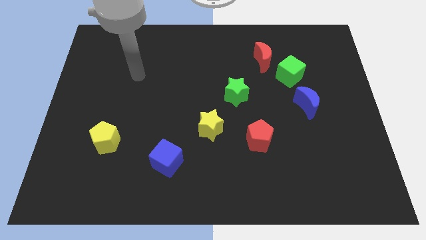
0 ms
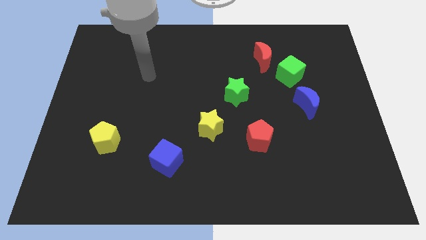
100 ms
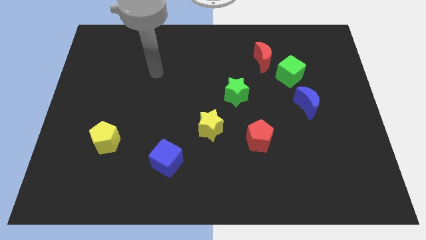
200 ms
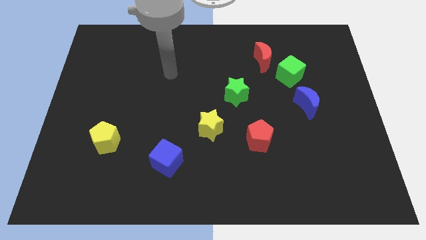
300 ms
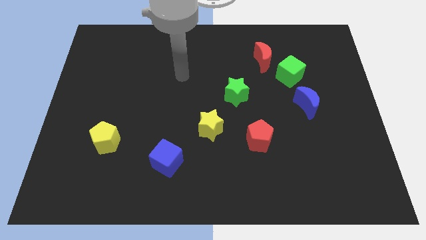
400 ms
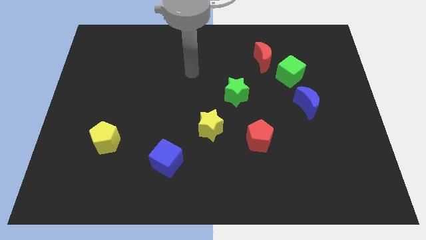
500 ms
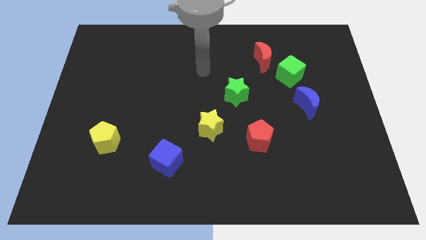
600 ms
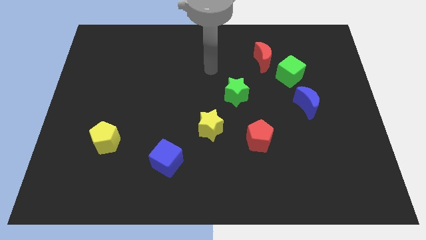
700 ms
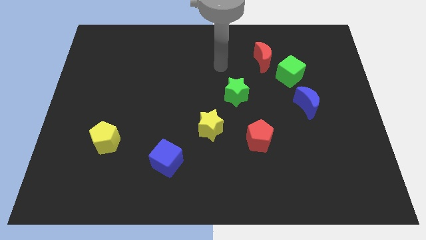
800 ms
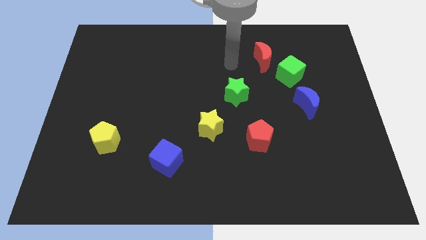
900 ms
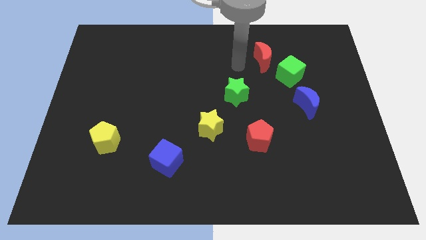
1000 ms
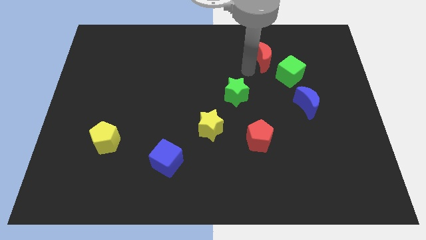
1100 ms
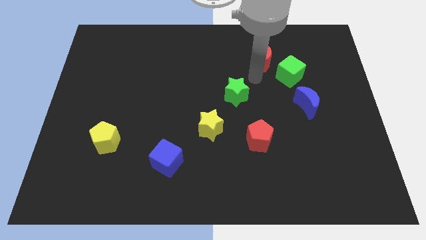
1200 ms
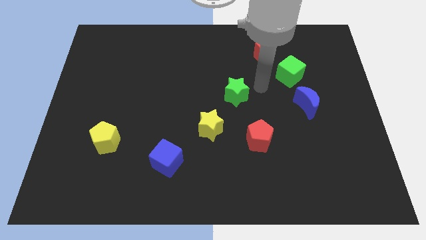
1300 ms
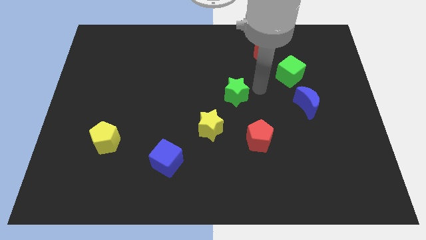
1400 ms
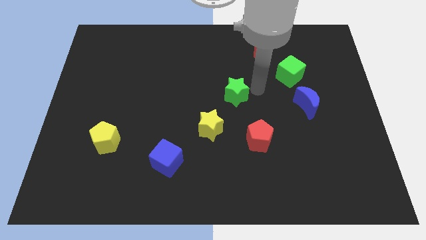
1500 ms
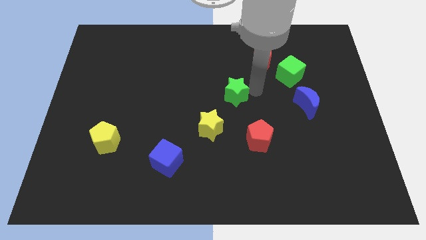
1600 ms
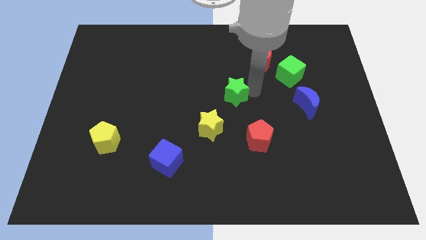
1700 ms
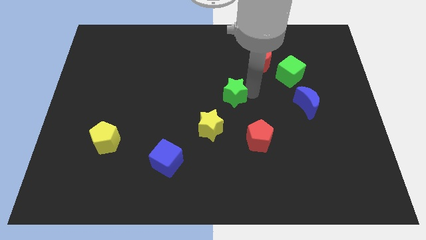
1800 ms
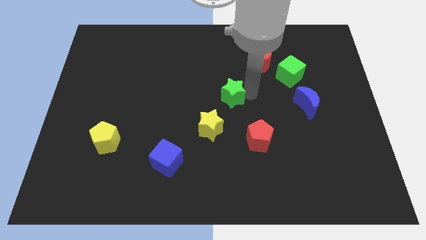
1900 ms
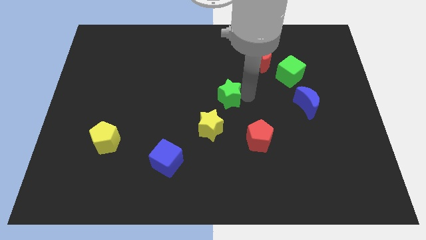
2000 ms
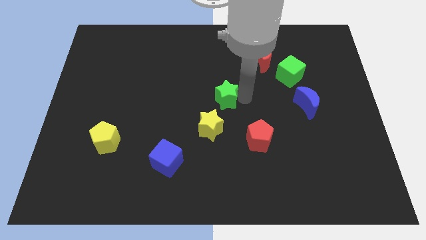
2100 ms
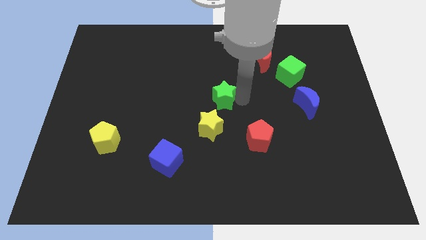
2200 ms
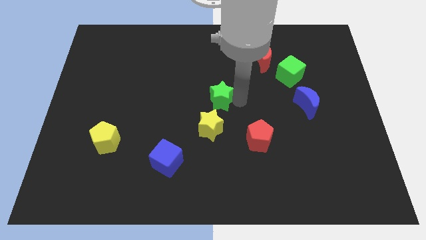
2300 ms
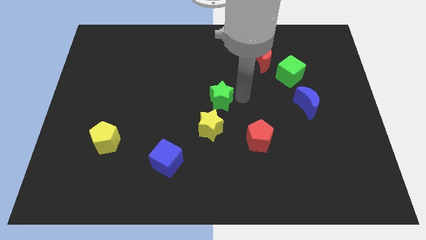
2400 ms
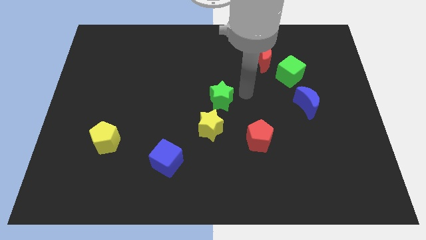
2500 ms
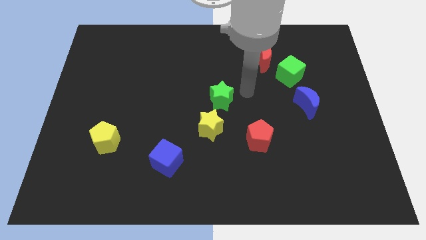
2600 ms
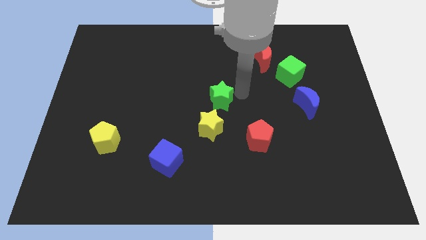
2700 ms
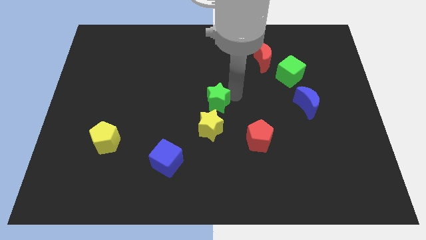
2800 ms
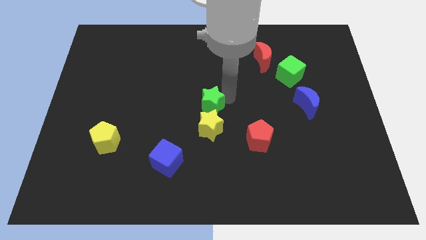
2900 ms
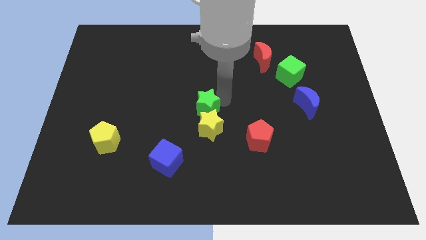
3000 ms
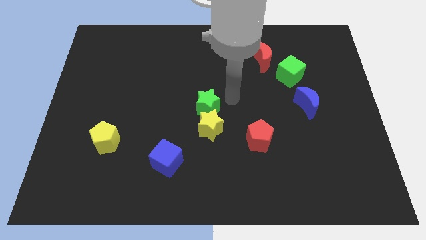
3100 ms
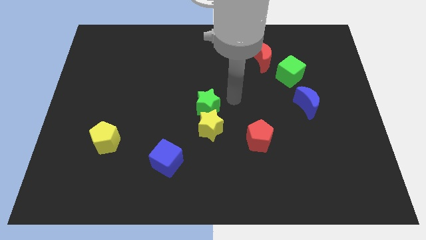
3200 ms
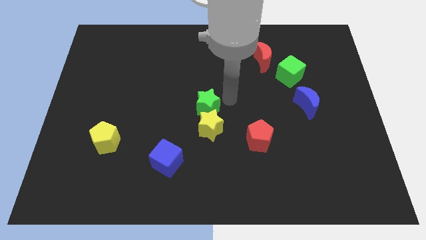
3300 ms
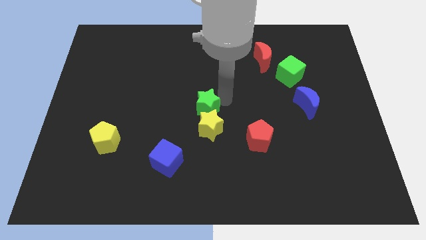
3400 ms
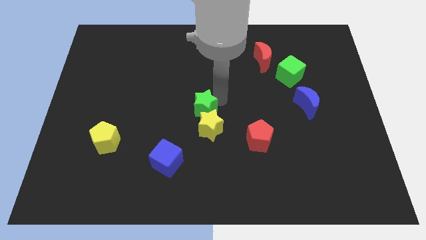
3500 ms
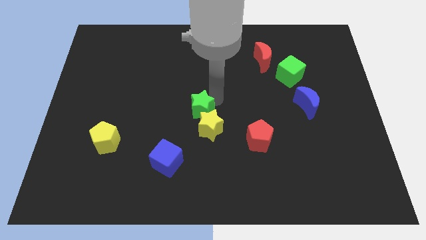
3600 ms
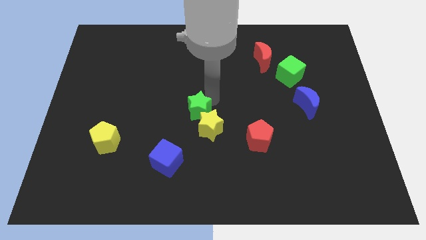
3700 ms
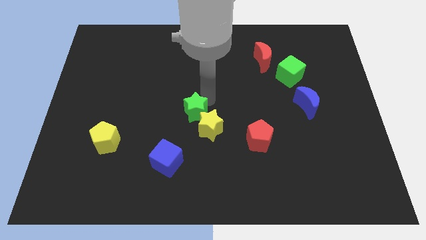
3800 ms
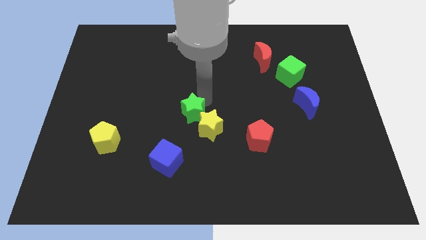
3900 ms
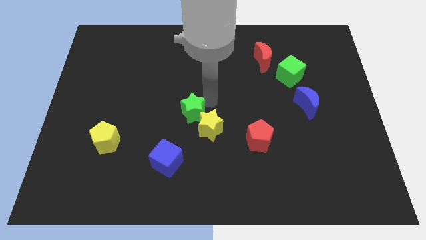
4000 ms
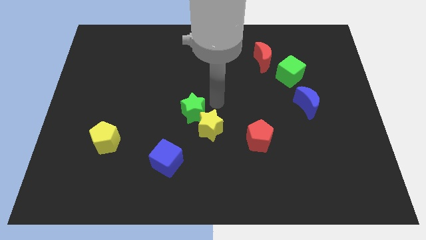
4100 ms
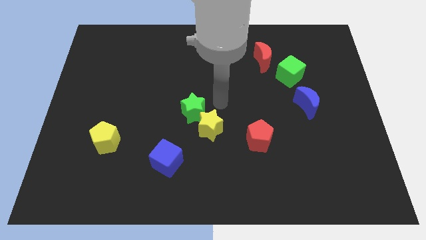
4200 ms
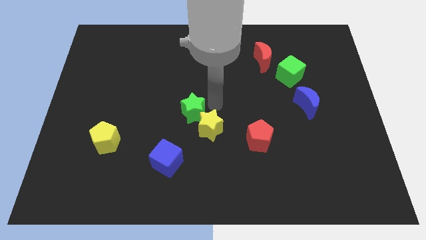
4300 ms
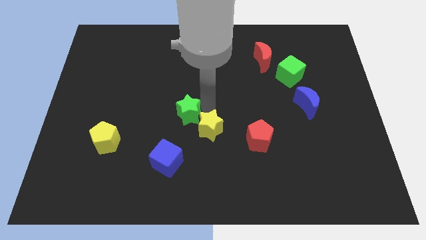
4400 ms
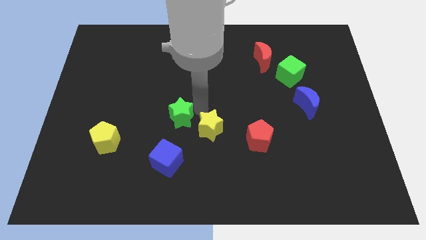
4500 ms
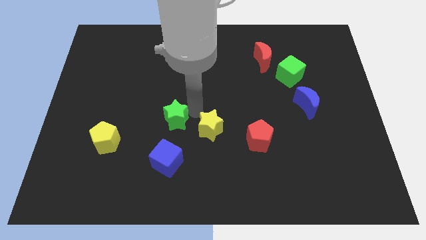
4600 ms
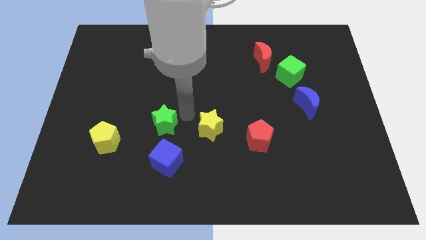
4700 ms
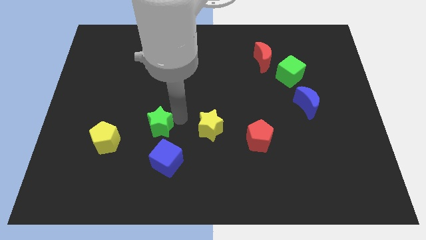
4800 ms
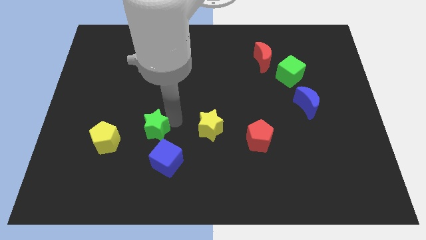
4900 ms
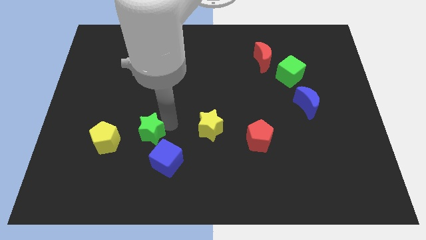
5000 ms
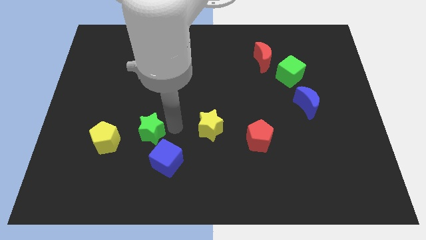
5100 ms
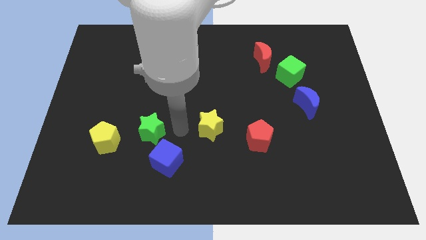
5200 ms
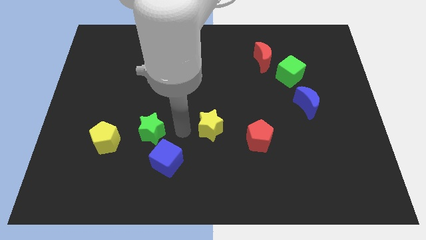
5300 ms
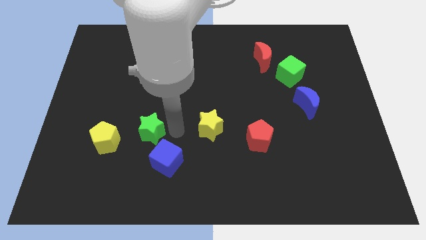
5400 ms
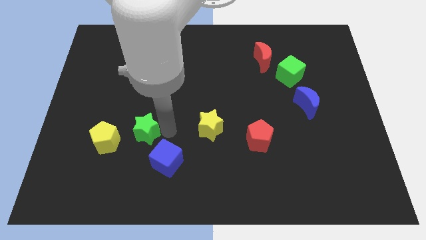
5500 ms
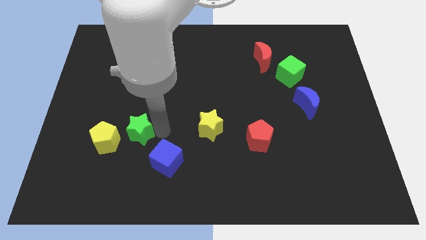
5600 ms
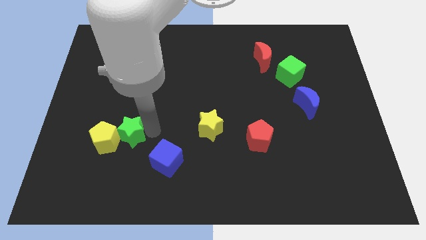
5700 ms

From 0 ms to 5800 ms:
slide the green star to the yellow pentagon
